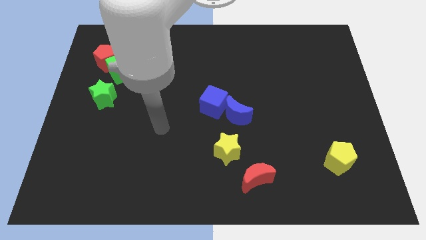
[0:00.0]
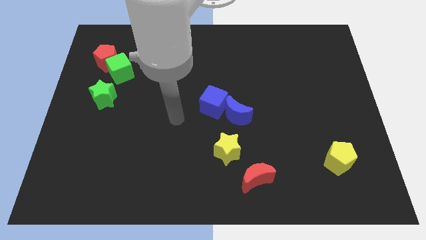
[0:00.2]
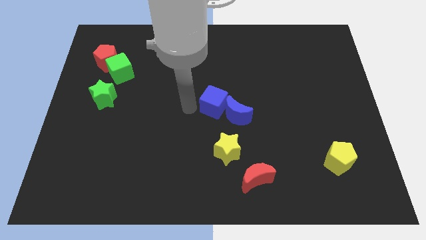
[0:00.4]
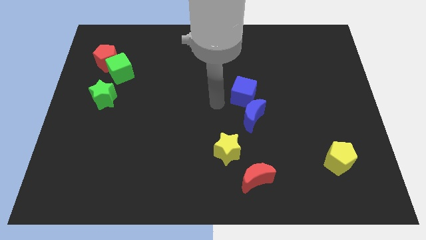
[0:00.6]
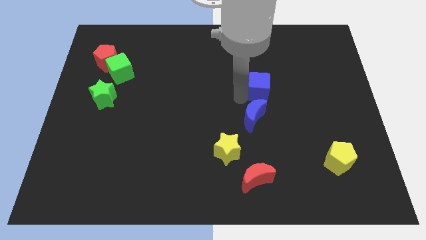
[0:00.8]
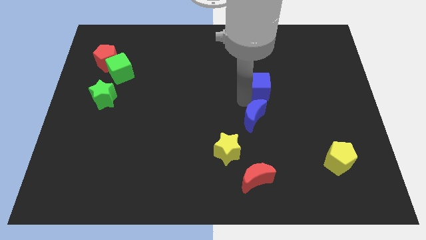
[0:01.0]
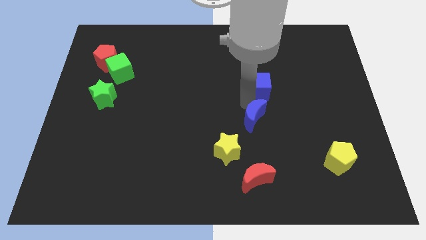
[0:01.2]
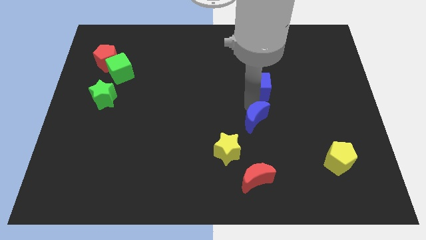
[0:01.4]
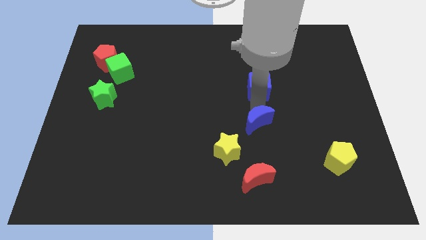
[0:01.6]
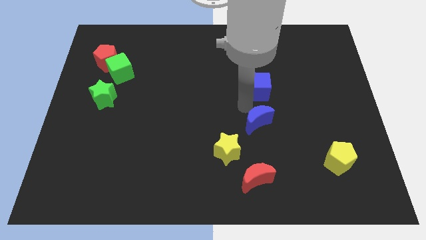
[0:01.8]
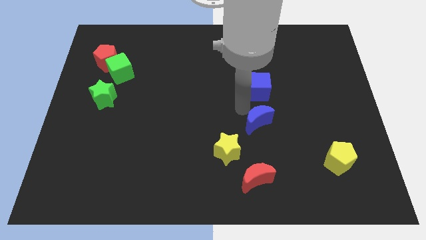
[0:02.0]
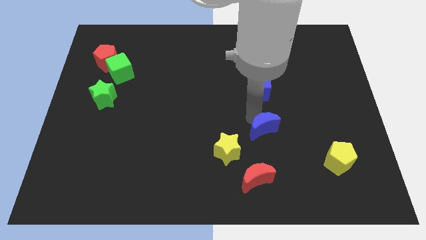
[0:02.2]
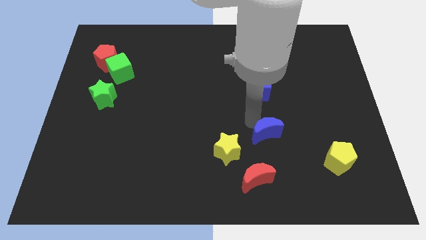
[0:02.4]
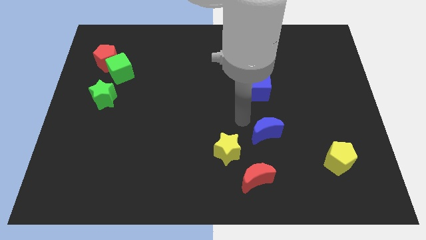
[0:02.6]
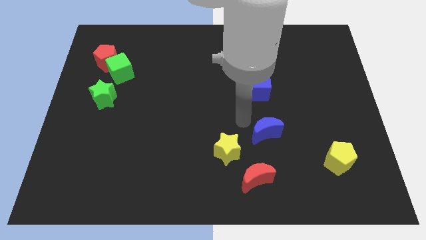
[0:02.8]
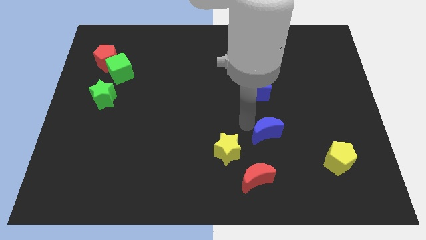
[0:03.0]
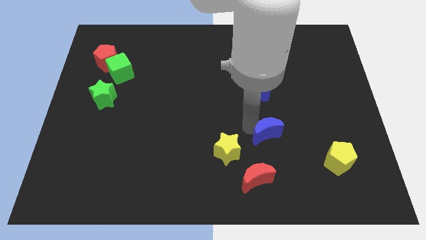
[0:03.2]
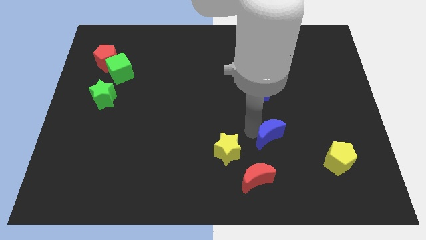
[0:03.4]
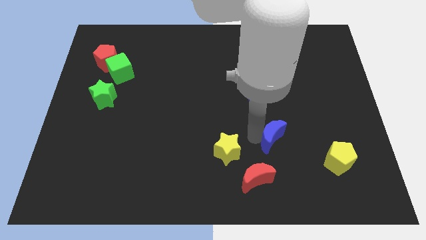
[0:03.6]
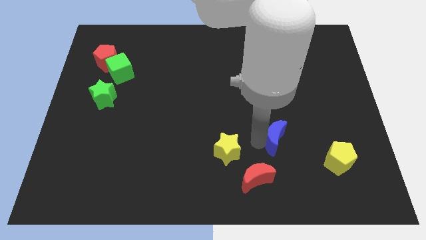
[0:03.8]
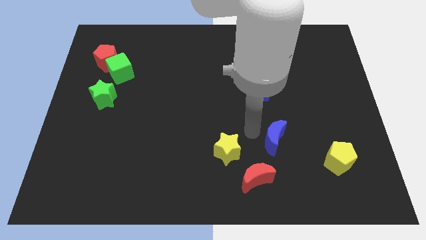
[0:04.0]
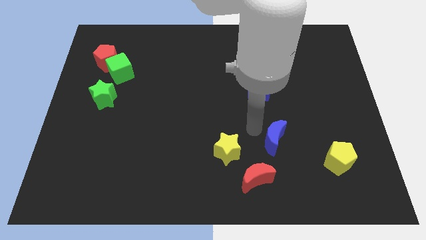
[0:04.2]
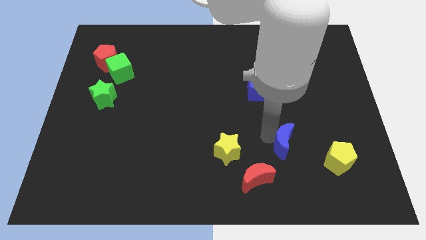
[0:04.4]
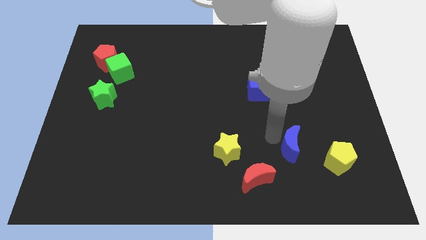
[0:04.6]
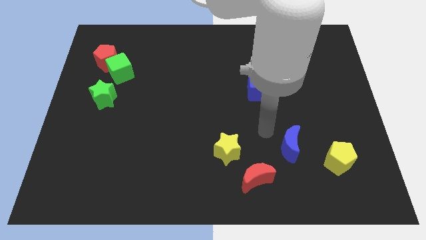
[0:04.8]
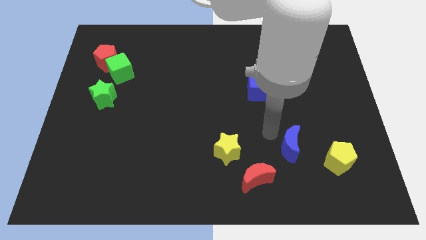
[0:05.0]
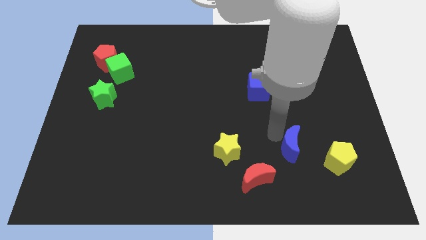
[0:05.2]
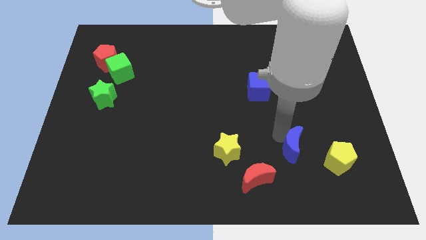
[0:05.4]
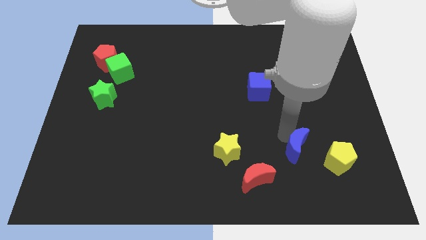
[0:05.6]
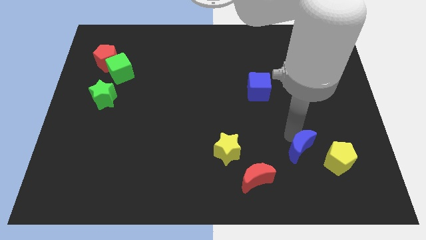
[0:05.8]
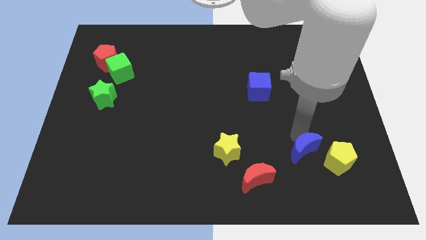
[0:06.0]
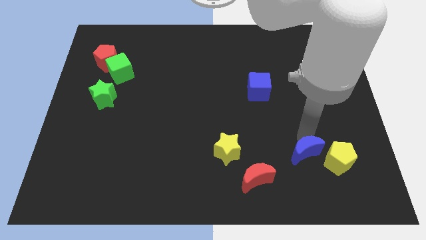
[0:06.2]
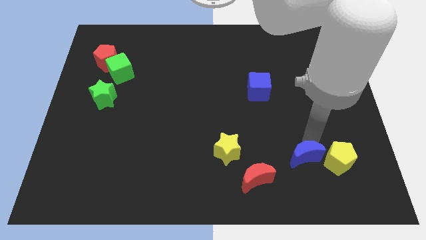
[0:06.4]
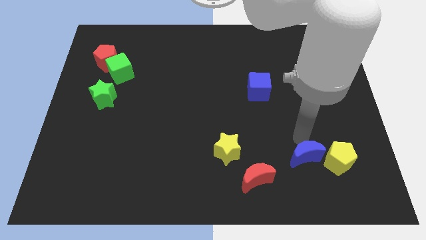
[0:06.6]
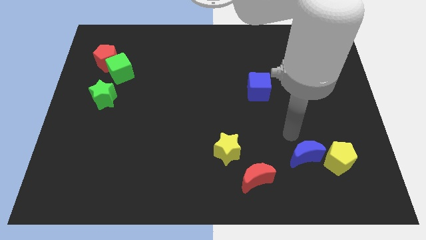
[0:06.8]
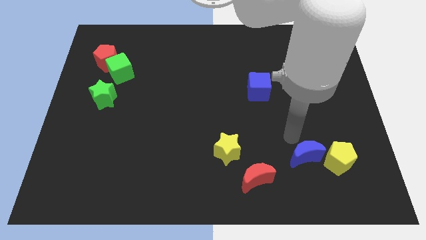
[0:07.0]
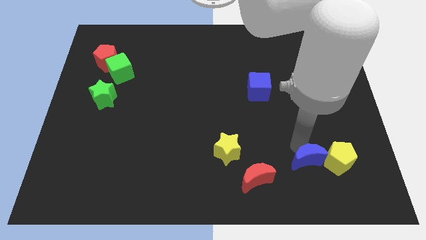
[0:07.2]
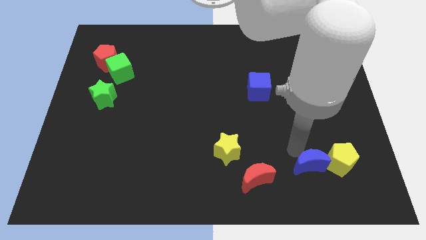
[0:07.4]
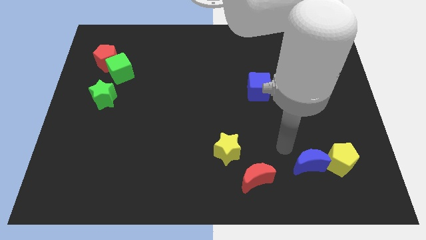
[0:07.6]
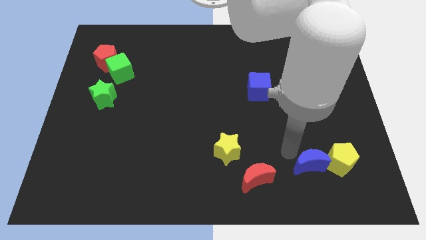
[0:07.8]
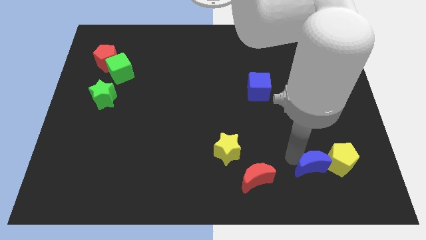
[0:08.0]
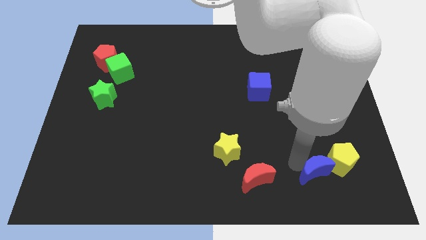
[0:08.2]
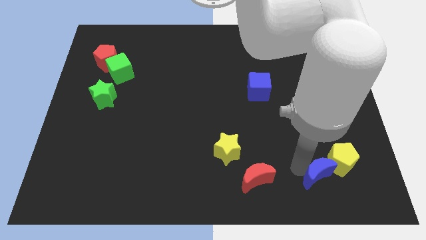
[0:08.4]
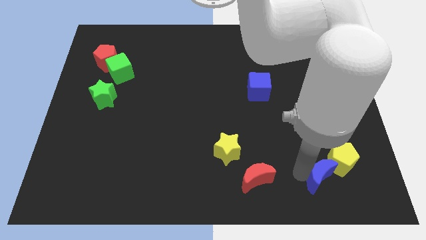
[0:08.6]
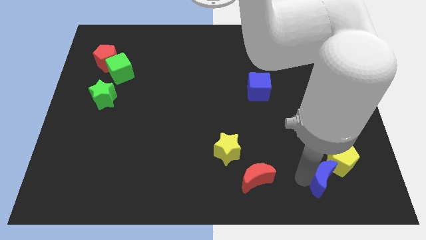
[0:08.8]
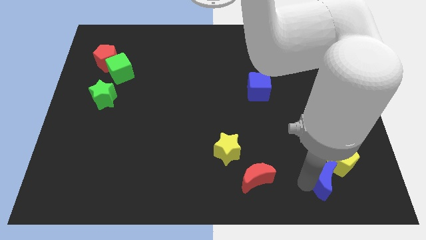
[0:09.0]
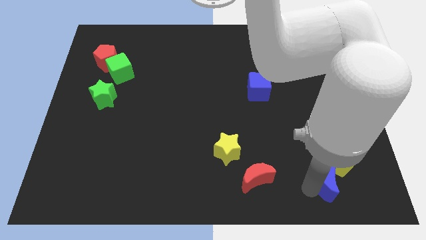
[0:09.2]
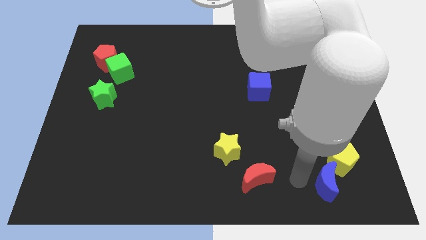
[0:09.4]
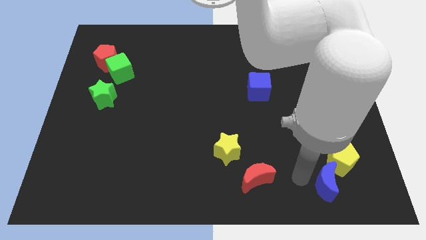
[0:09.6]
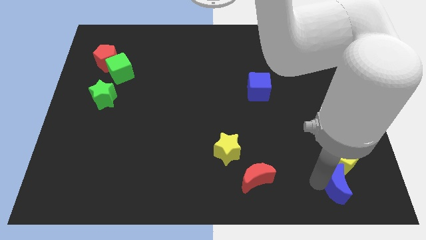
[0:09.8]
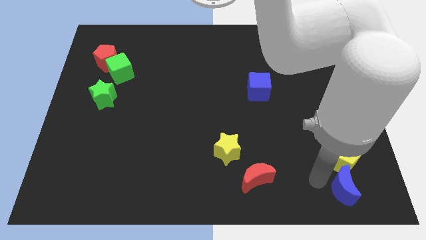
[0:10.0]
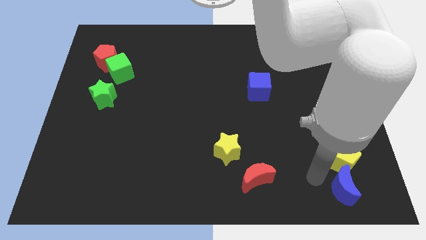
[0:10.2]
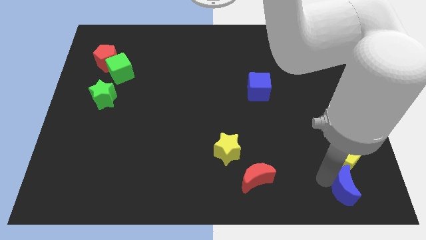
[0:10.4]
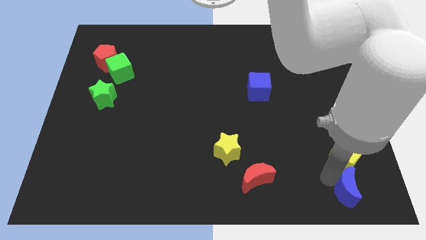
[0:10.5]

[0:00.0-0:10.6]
move the blue moon to the bottom right of the board

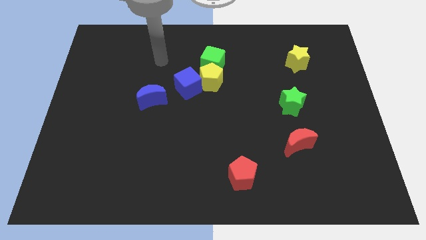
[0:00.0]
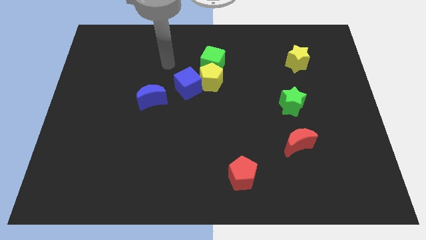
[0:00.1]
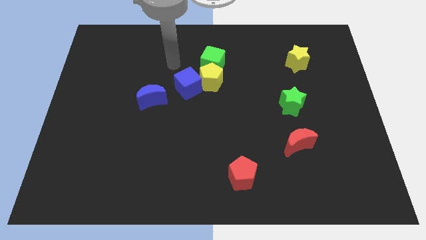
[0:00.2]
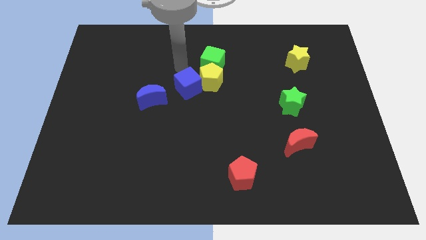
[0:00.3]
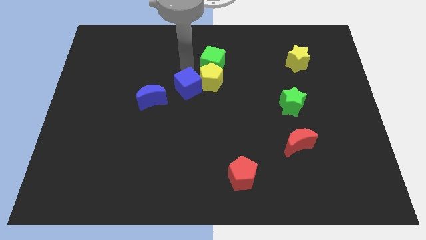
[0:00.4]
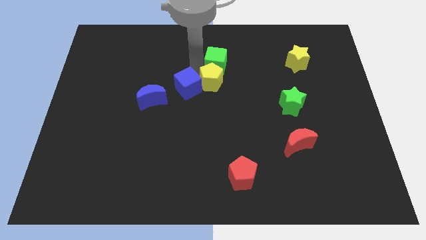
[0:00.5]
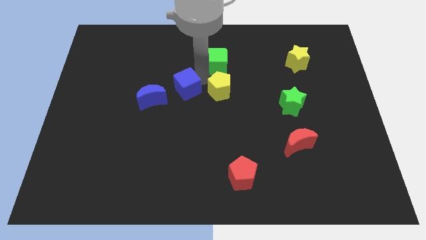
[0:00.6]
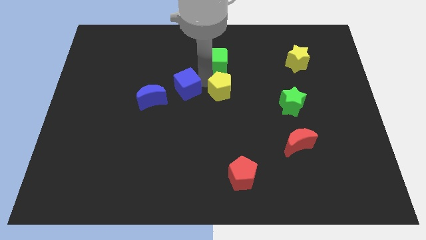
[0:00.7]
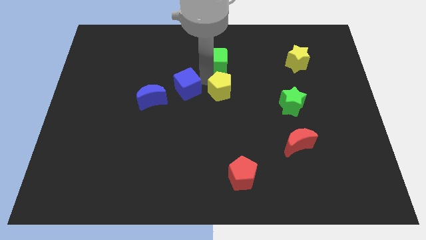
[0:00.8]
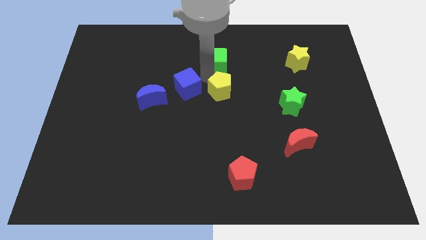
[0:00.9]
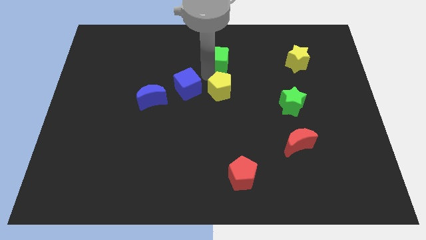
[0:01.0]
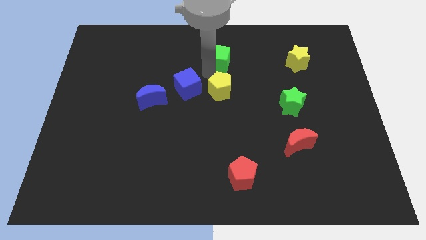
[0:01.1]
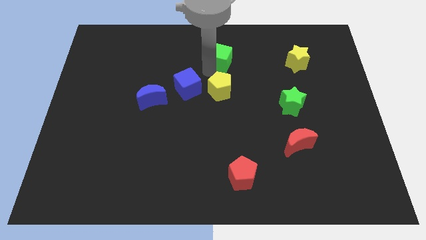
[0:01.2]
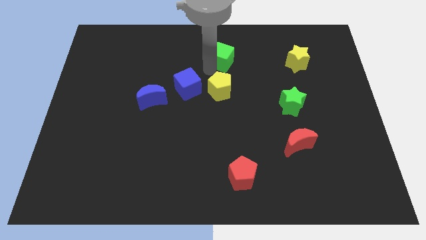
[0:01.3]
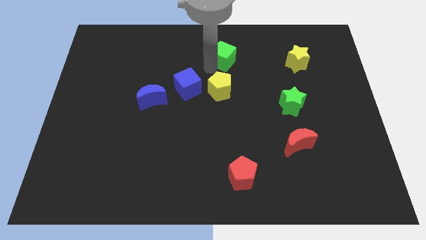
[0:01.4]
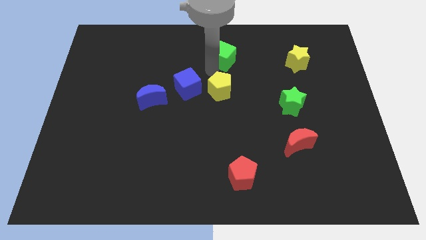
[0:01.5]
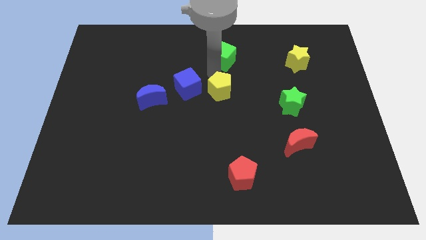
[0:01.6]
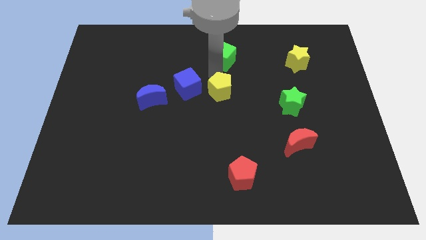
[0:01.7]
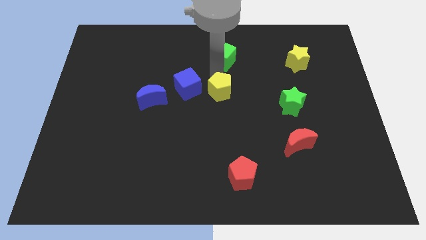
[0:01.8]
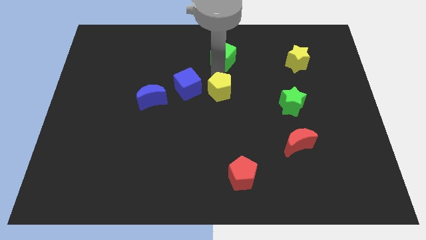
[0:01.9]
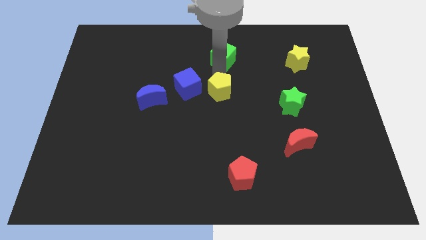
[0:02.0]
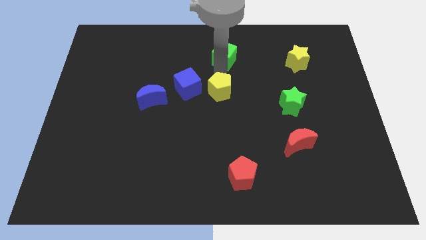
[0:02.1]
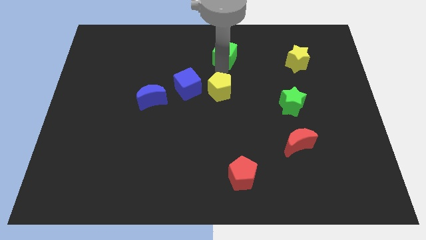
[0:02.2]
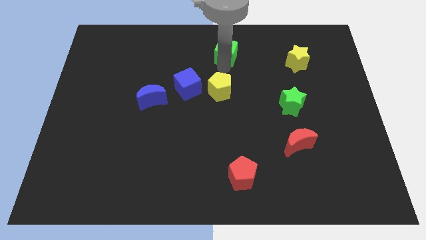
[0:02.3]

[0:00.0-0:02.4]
put the green cube to the top side
